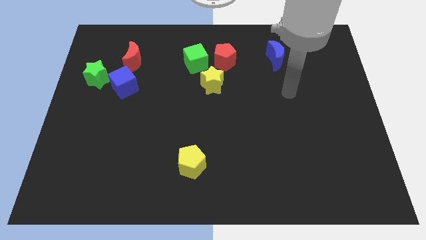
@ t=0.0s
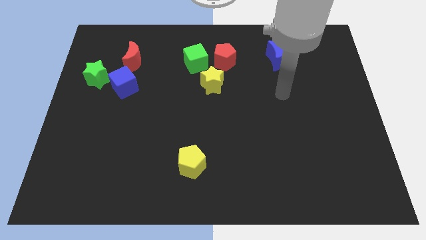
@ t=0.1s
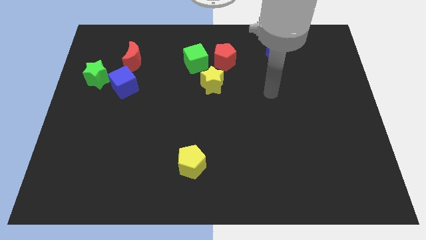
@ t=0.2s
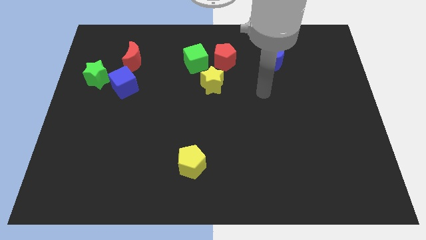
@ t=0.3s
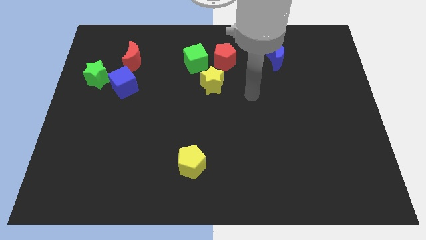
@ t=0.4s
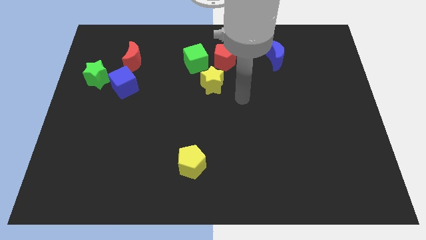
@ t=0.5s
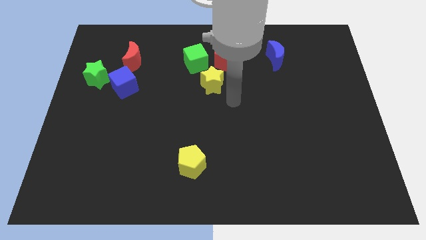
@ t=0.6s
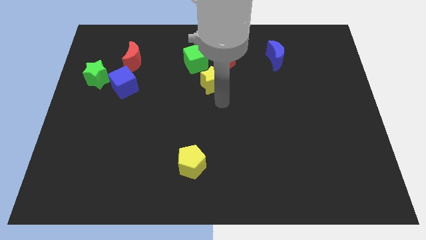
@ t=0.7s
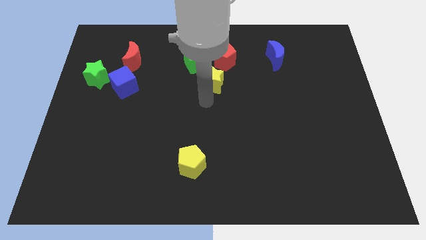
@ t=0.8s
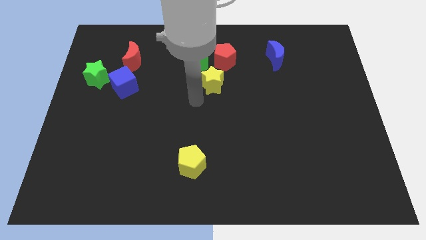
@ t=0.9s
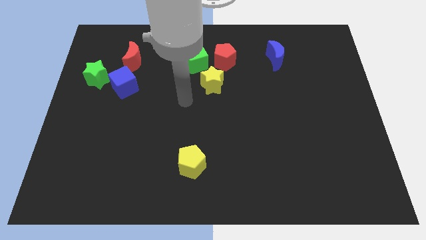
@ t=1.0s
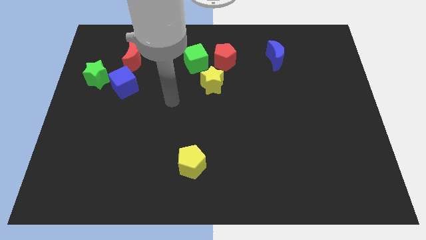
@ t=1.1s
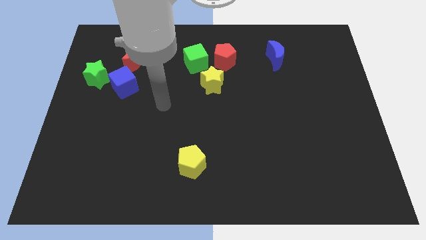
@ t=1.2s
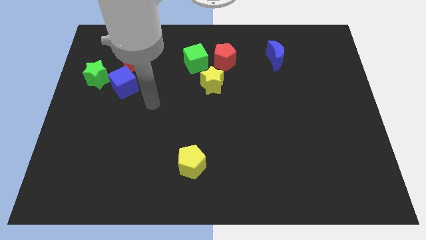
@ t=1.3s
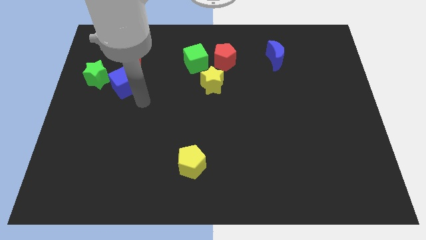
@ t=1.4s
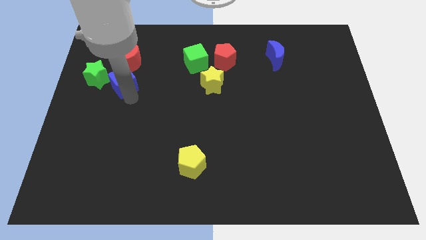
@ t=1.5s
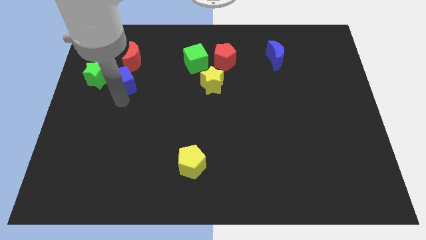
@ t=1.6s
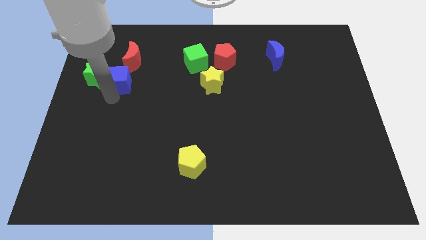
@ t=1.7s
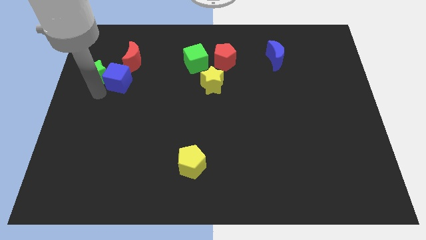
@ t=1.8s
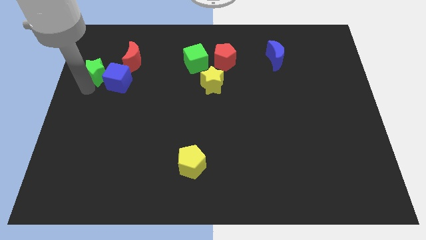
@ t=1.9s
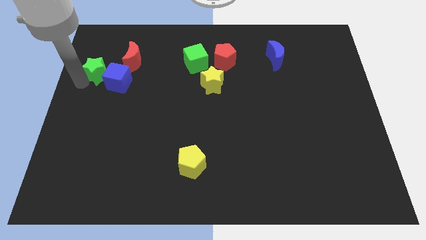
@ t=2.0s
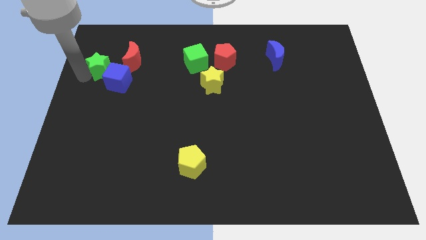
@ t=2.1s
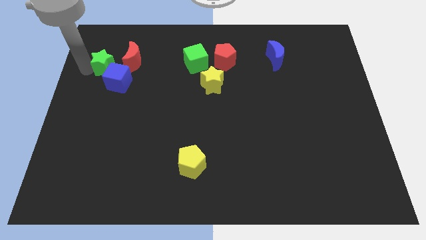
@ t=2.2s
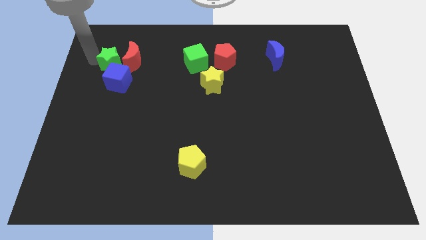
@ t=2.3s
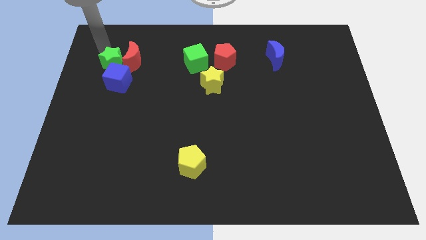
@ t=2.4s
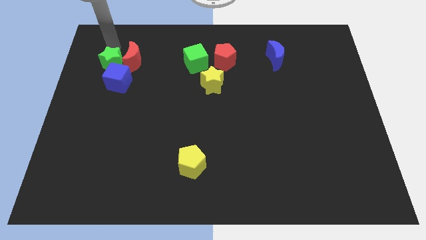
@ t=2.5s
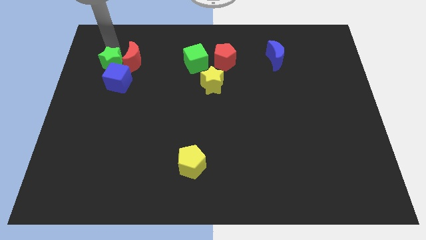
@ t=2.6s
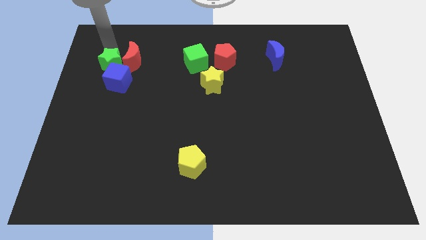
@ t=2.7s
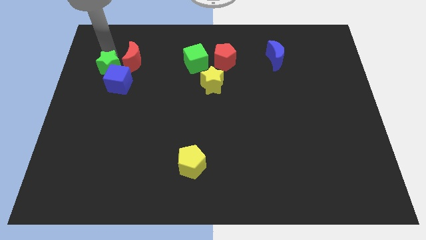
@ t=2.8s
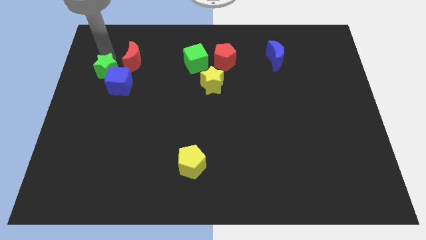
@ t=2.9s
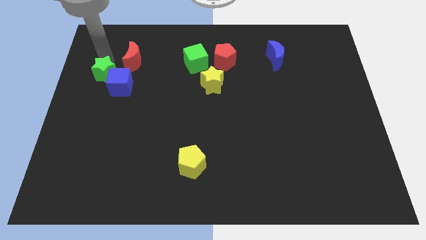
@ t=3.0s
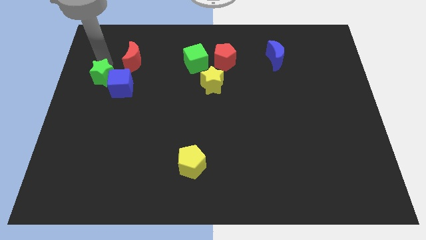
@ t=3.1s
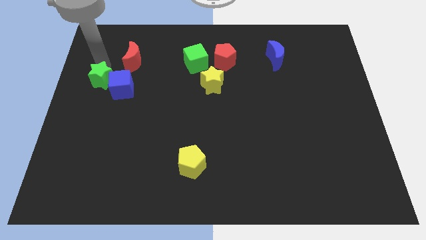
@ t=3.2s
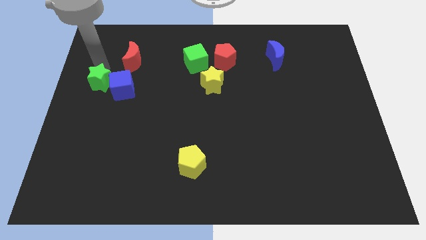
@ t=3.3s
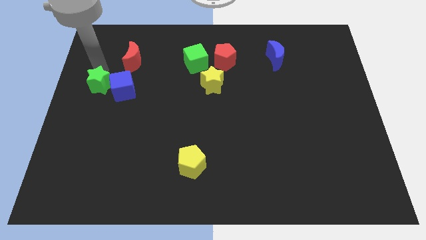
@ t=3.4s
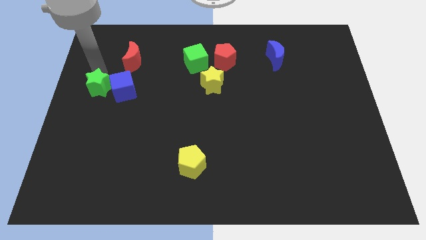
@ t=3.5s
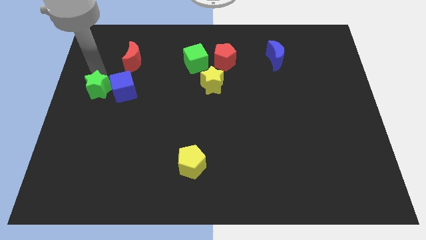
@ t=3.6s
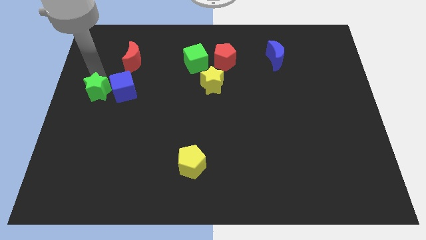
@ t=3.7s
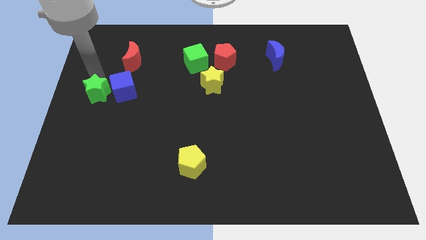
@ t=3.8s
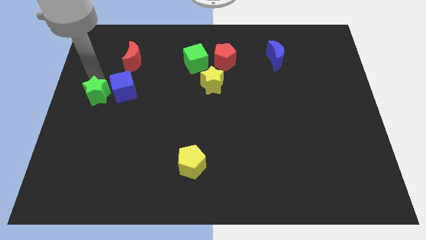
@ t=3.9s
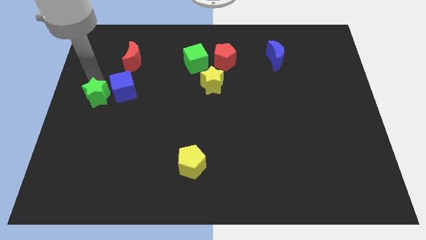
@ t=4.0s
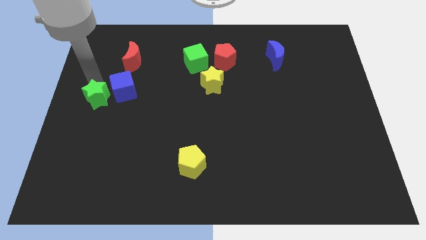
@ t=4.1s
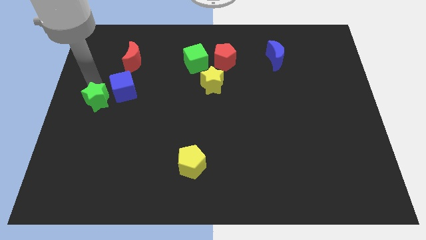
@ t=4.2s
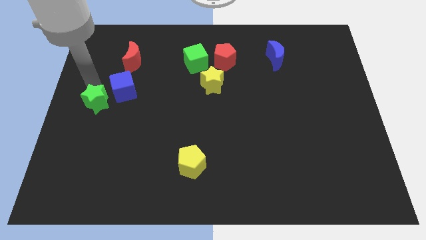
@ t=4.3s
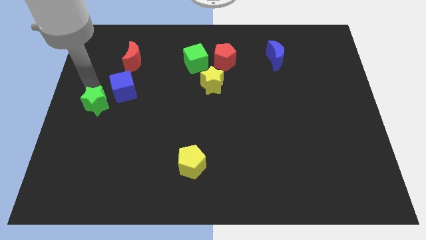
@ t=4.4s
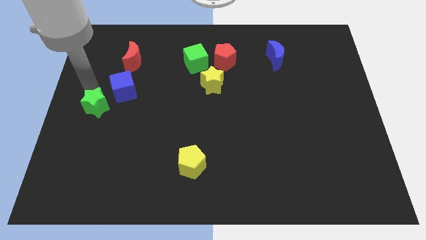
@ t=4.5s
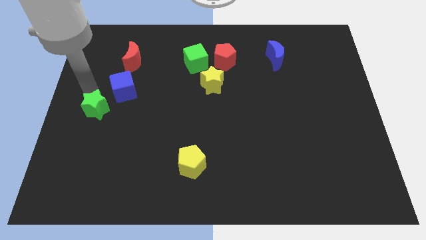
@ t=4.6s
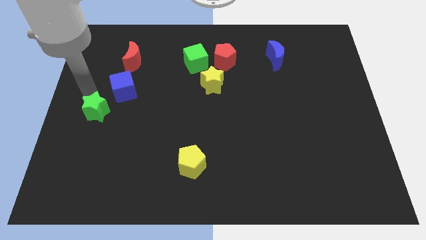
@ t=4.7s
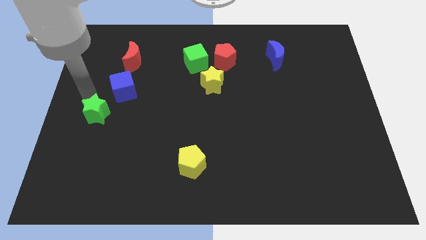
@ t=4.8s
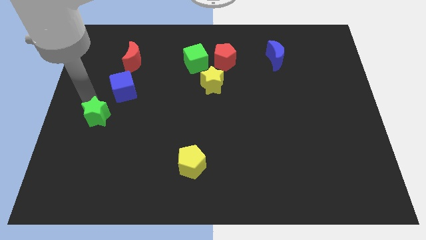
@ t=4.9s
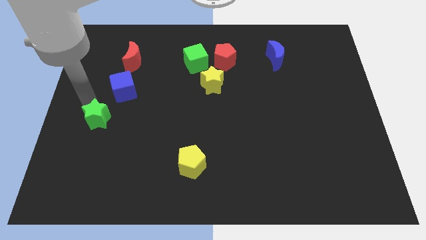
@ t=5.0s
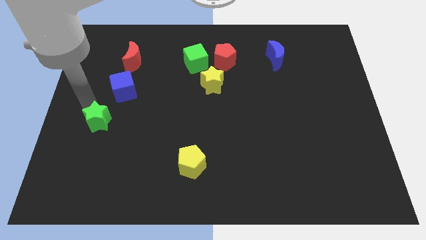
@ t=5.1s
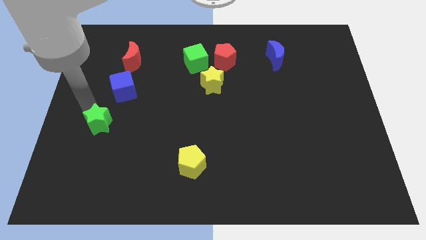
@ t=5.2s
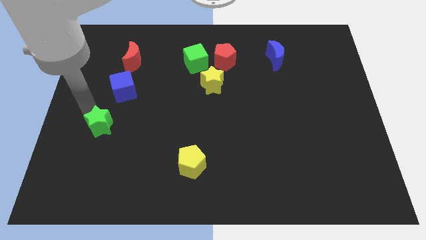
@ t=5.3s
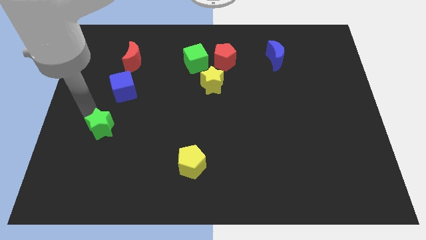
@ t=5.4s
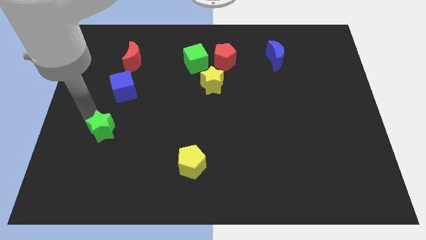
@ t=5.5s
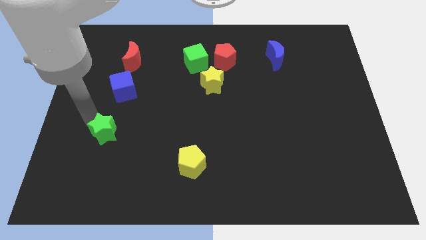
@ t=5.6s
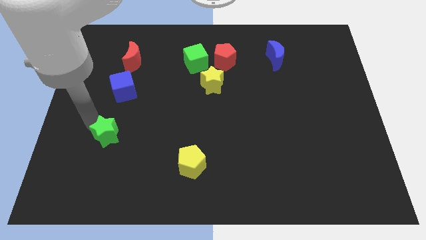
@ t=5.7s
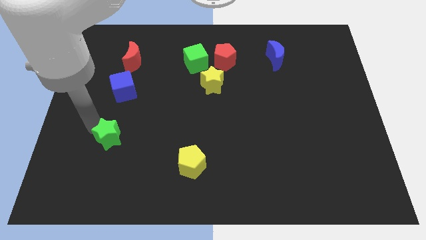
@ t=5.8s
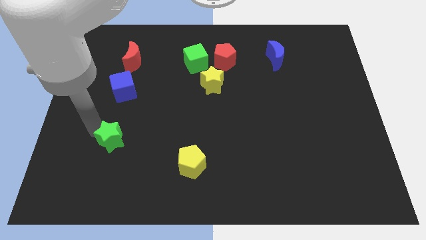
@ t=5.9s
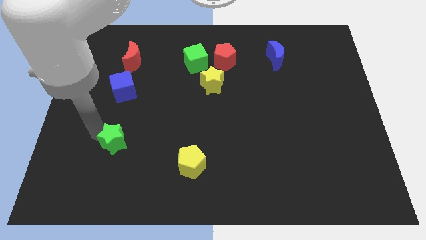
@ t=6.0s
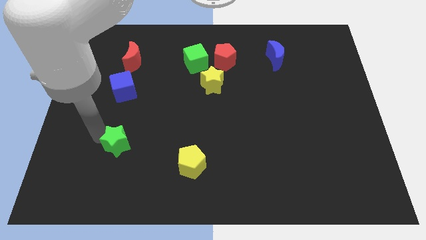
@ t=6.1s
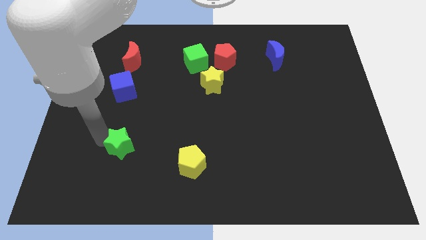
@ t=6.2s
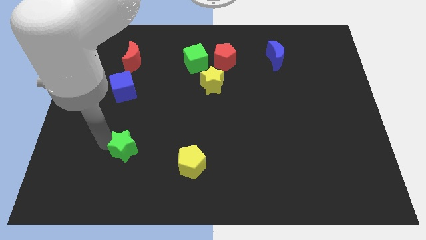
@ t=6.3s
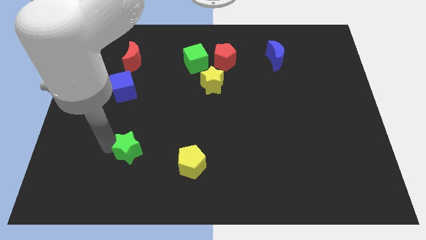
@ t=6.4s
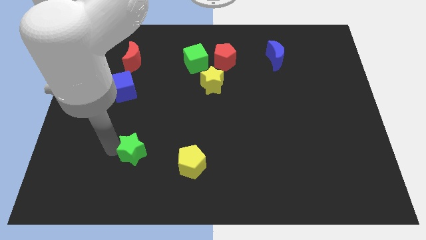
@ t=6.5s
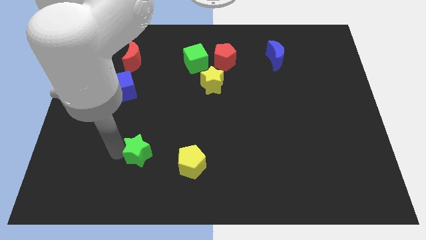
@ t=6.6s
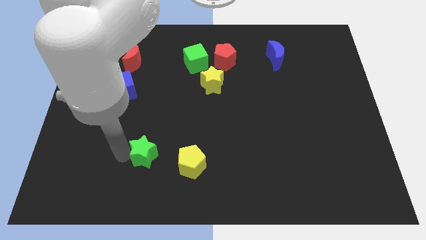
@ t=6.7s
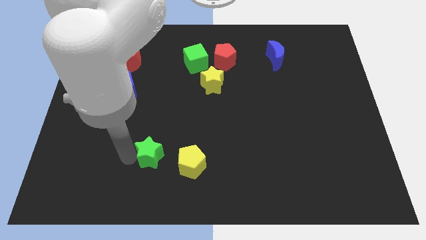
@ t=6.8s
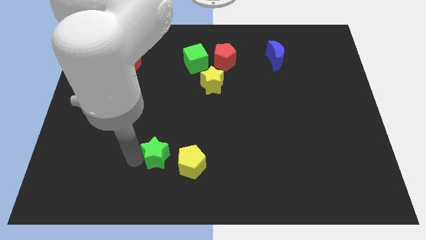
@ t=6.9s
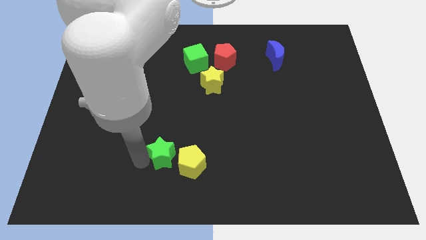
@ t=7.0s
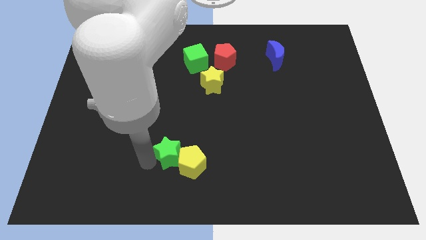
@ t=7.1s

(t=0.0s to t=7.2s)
move the green star towards the yellow pentagon
